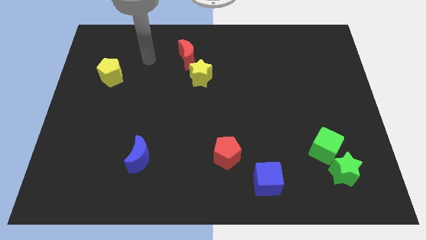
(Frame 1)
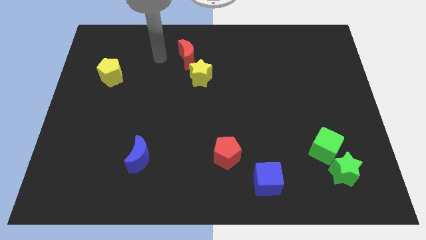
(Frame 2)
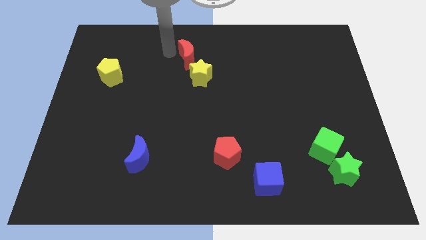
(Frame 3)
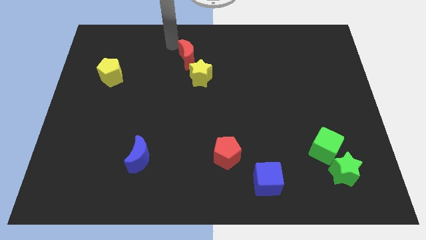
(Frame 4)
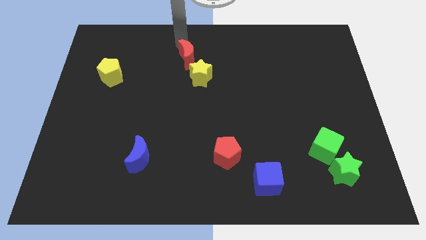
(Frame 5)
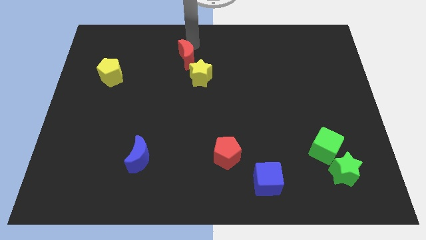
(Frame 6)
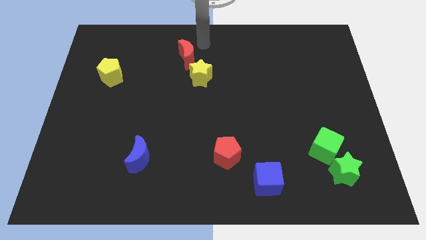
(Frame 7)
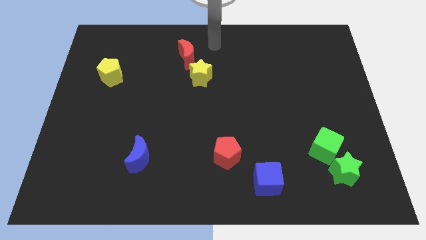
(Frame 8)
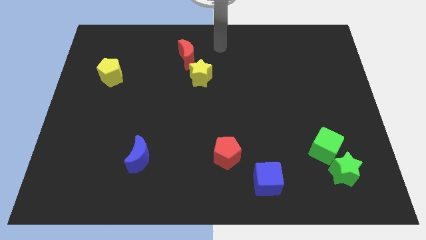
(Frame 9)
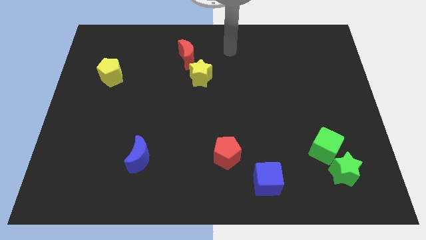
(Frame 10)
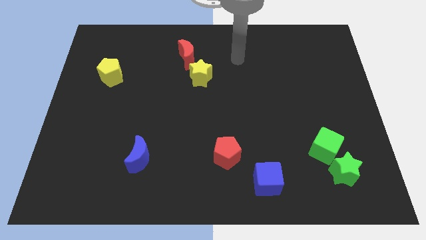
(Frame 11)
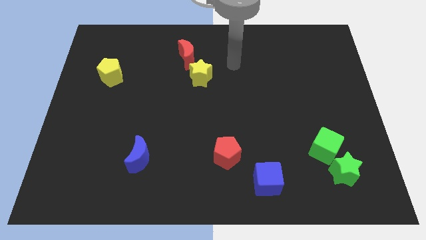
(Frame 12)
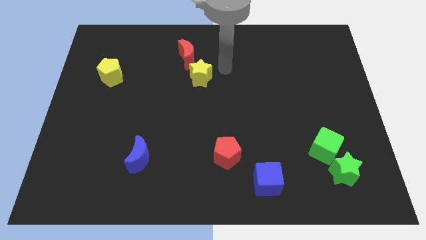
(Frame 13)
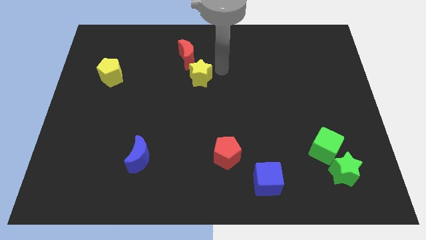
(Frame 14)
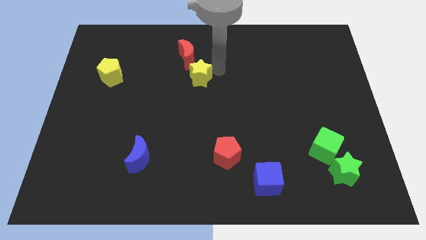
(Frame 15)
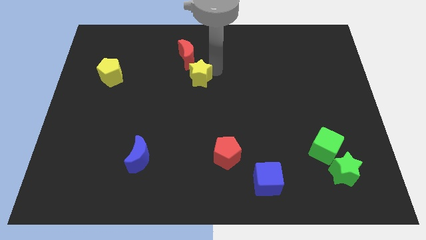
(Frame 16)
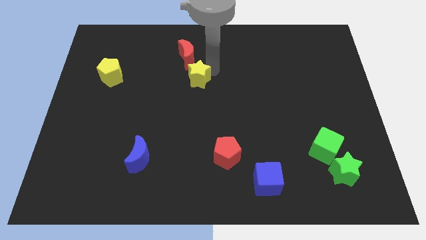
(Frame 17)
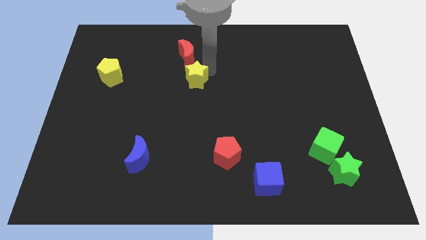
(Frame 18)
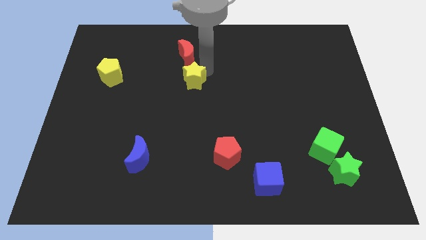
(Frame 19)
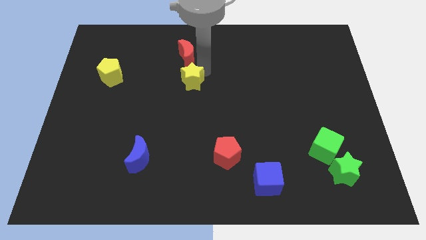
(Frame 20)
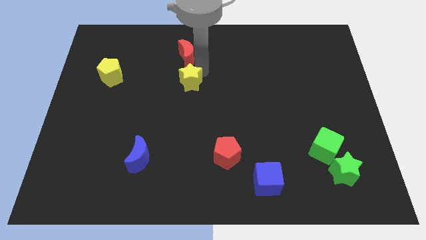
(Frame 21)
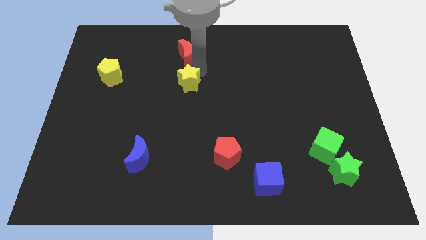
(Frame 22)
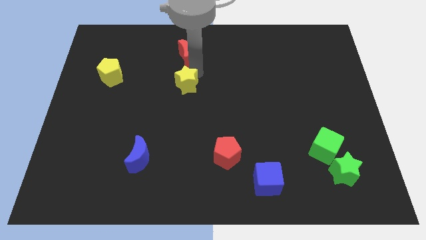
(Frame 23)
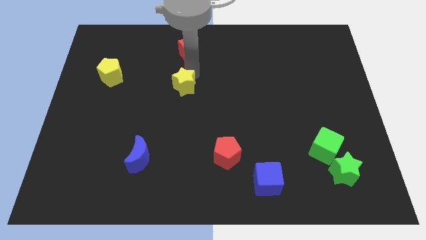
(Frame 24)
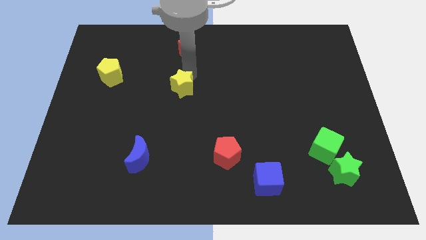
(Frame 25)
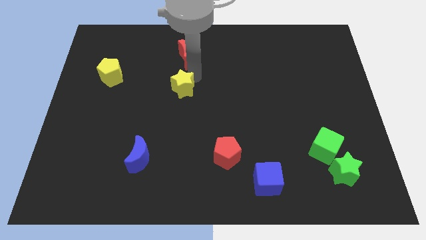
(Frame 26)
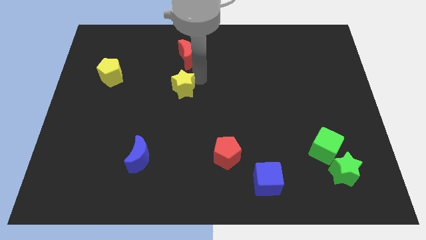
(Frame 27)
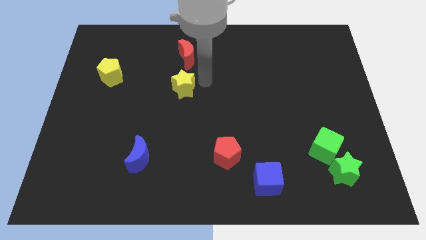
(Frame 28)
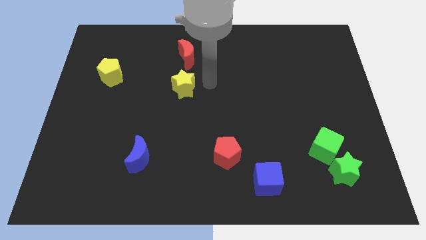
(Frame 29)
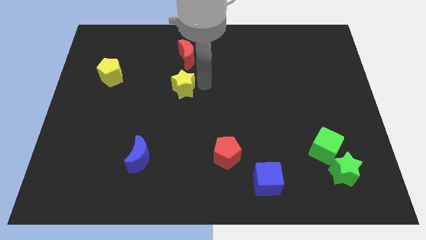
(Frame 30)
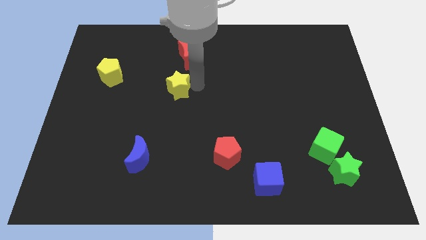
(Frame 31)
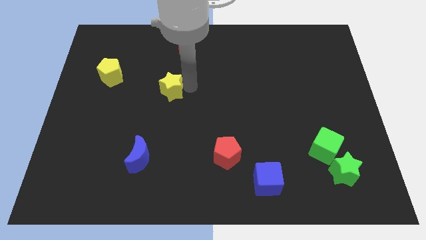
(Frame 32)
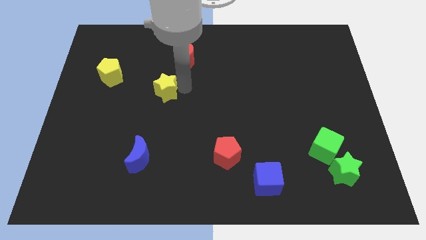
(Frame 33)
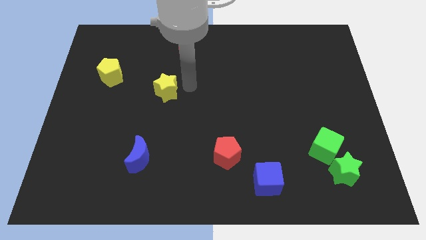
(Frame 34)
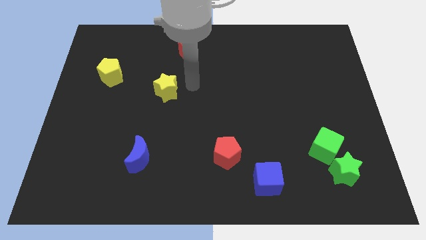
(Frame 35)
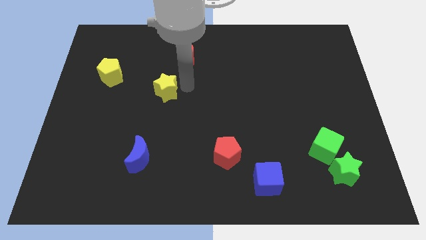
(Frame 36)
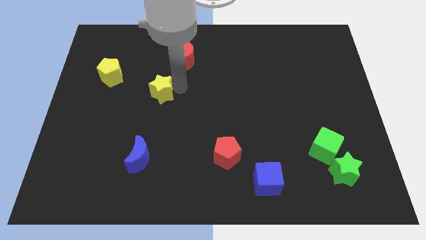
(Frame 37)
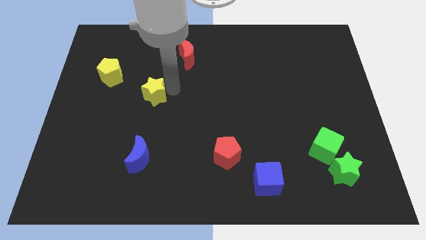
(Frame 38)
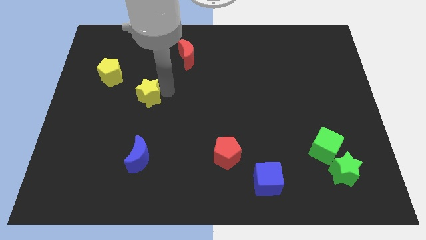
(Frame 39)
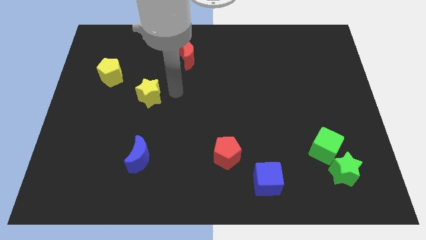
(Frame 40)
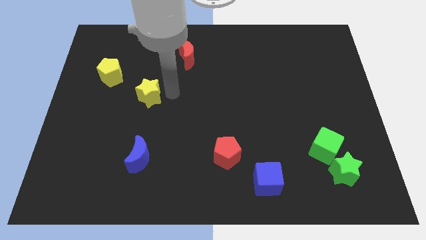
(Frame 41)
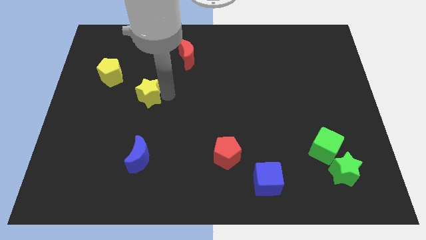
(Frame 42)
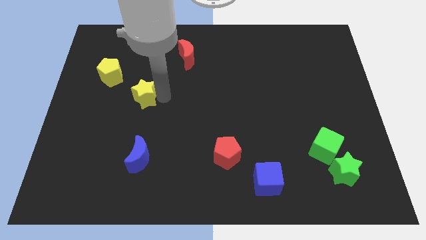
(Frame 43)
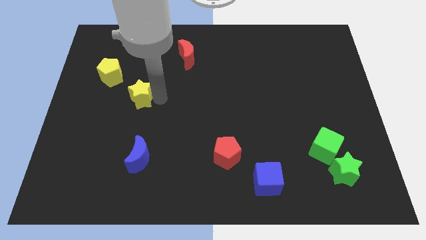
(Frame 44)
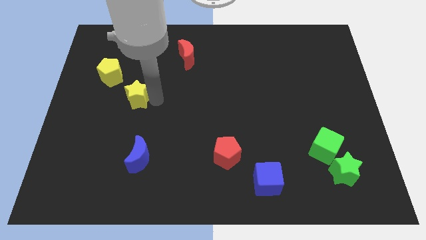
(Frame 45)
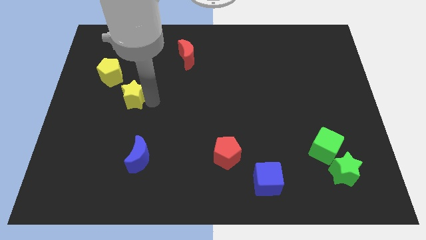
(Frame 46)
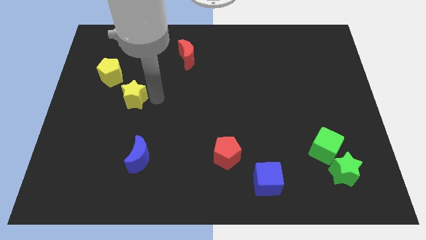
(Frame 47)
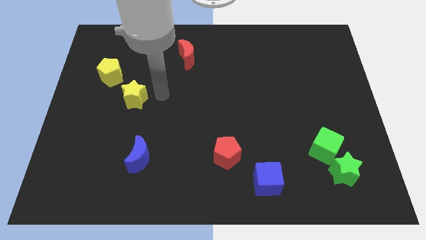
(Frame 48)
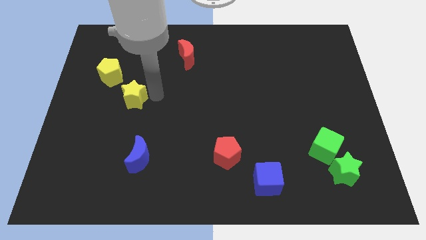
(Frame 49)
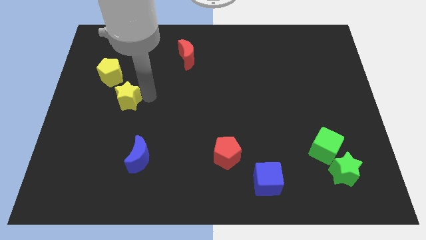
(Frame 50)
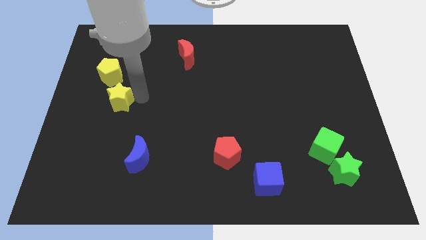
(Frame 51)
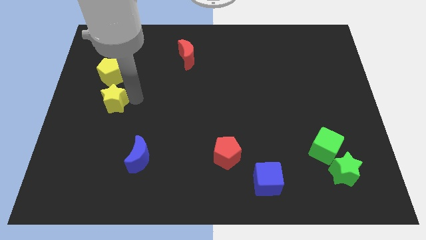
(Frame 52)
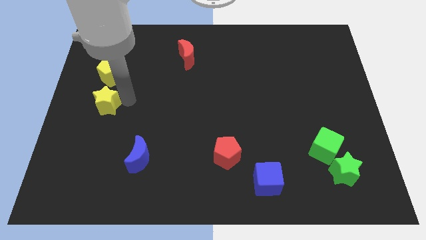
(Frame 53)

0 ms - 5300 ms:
push the yellow star to the left side
